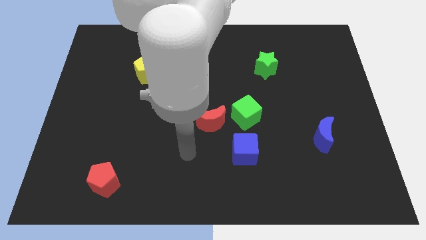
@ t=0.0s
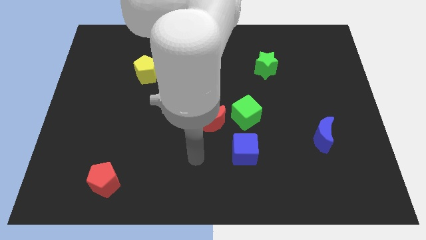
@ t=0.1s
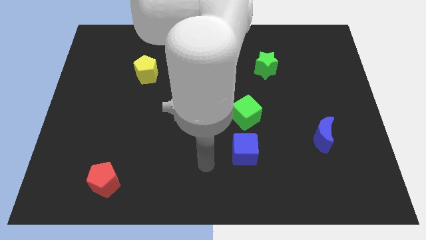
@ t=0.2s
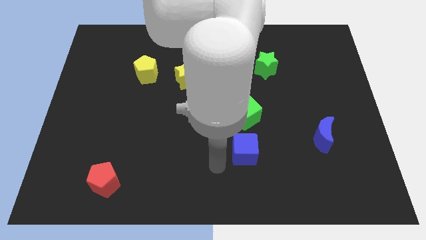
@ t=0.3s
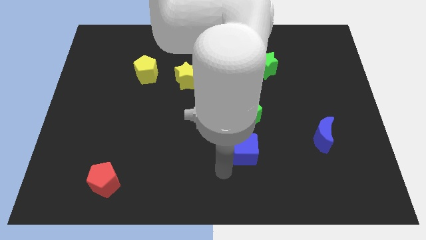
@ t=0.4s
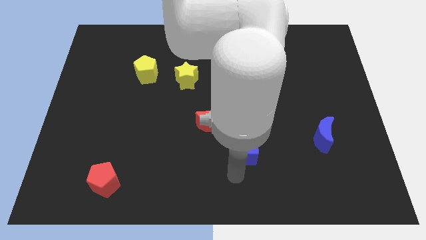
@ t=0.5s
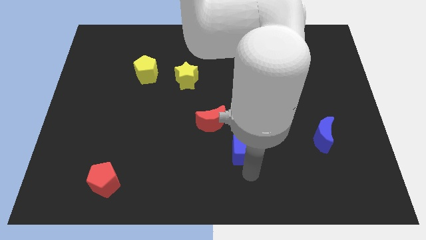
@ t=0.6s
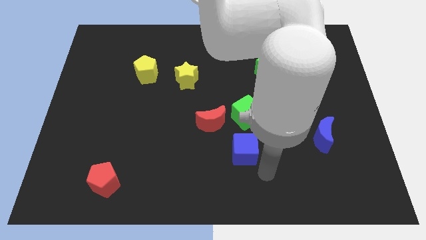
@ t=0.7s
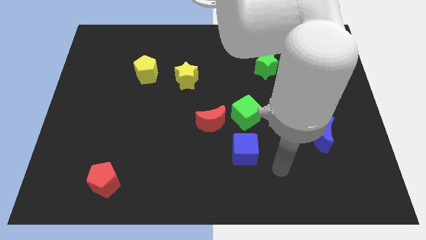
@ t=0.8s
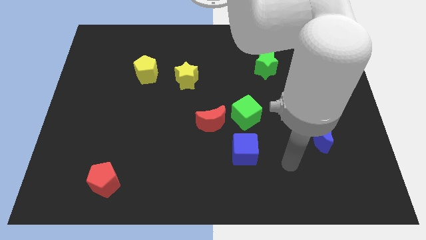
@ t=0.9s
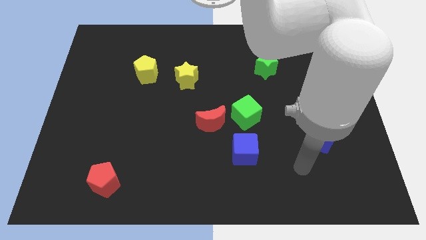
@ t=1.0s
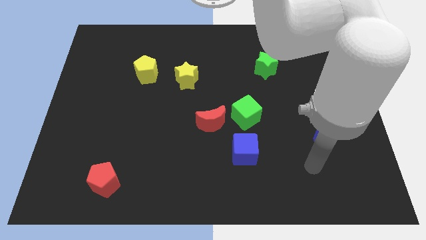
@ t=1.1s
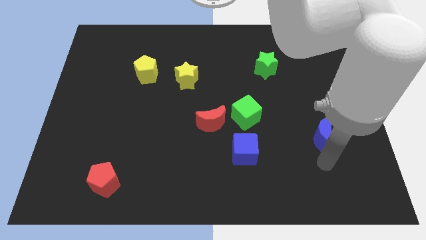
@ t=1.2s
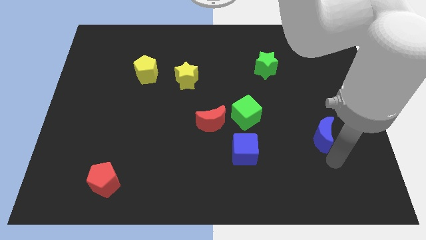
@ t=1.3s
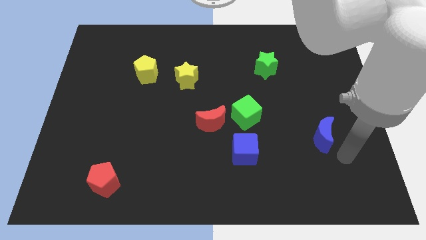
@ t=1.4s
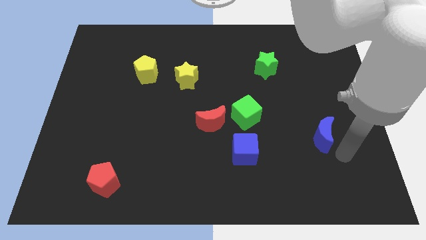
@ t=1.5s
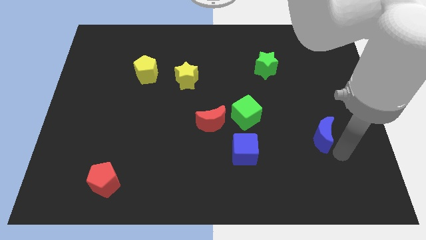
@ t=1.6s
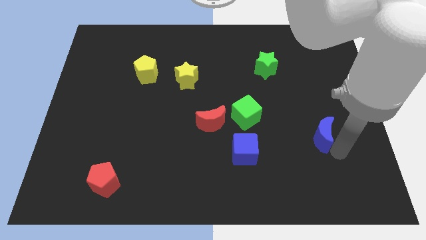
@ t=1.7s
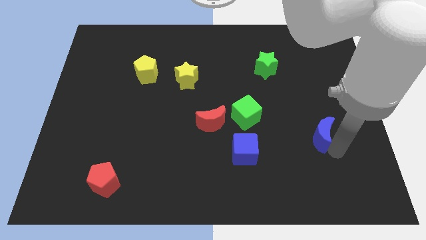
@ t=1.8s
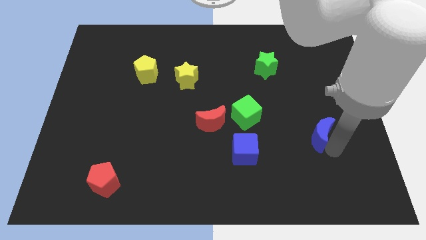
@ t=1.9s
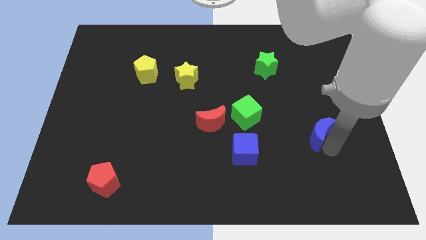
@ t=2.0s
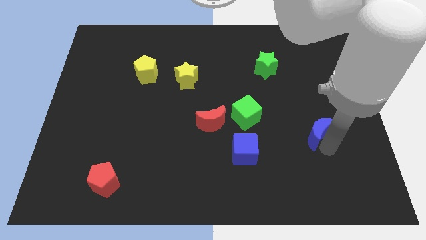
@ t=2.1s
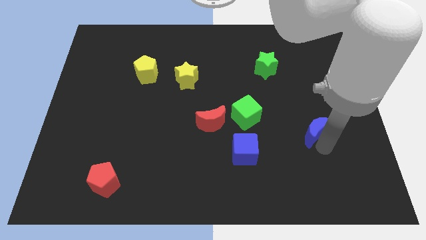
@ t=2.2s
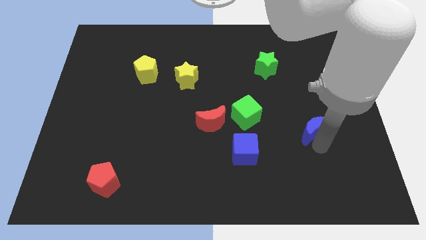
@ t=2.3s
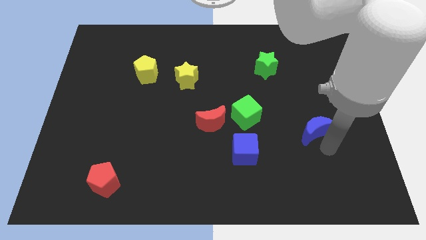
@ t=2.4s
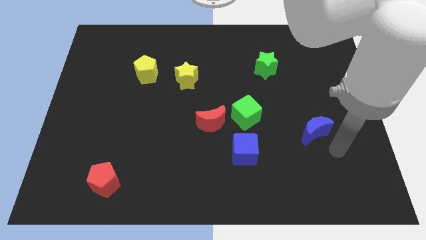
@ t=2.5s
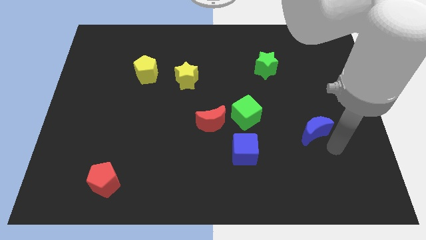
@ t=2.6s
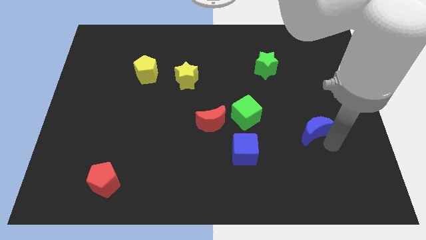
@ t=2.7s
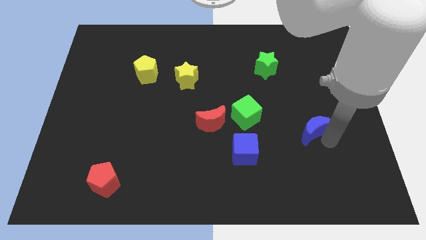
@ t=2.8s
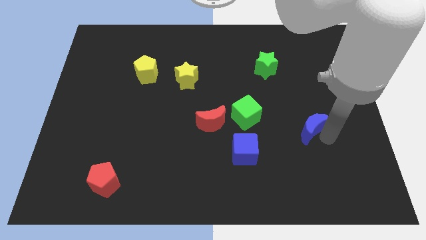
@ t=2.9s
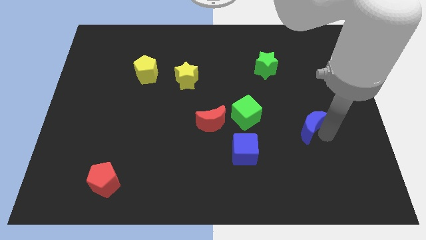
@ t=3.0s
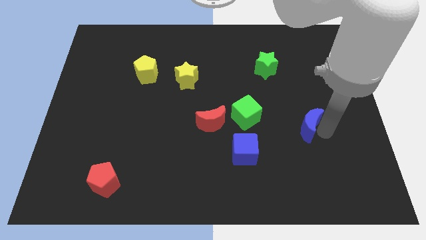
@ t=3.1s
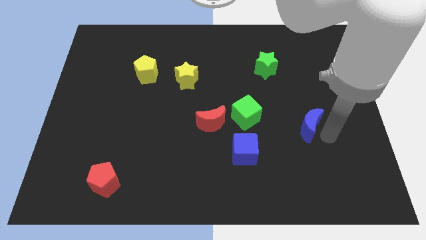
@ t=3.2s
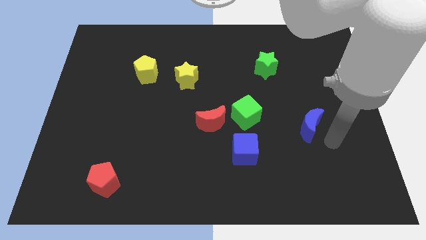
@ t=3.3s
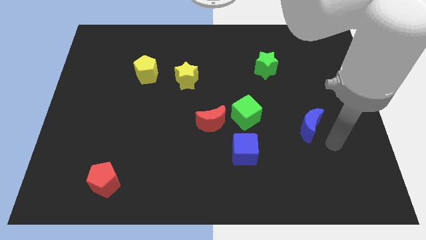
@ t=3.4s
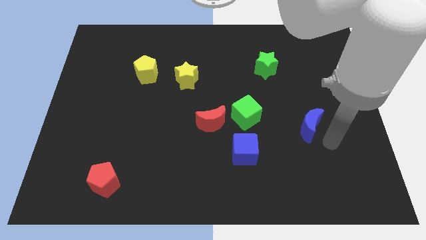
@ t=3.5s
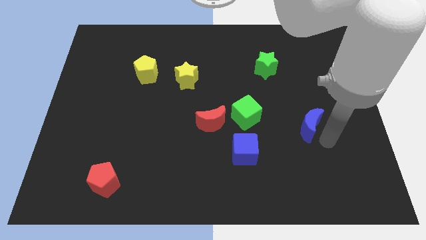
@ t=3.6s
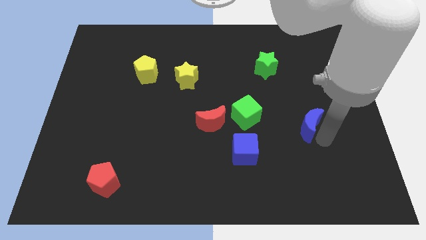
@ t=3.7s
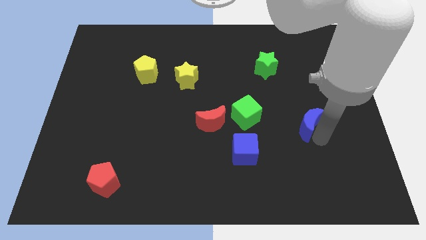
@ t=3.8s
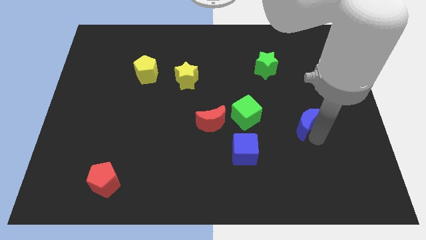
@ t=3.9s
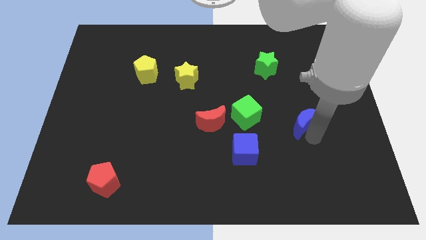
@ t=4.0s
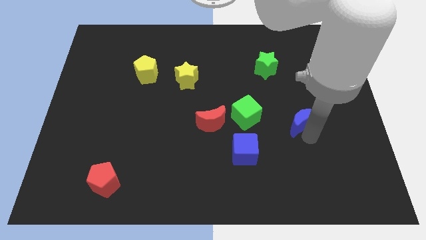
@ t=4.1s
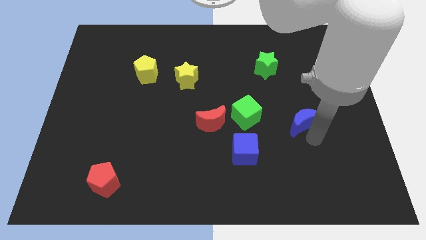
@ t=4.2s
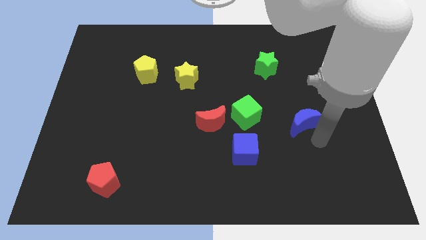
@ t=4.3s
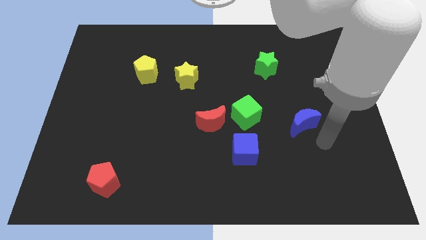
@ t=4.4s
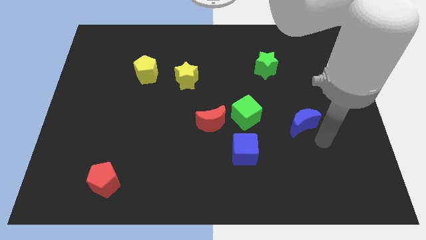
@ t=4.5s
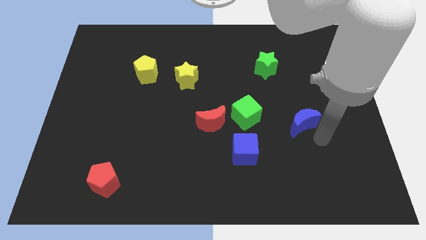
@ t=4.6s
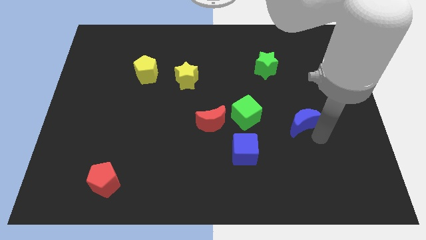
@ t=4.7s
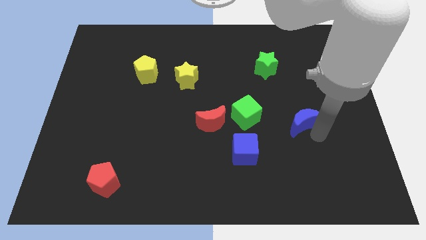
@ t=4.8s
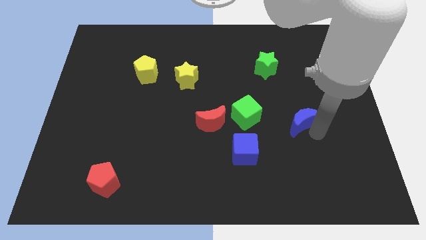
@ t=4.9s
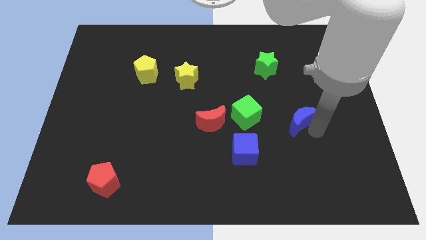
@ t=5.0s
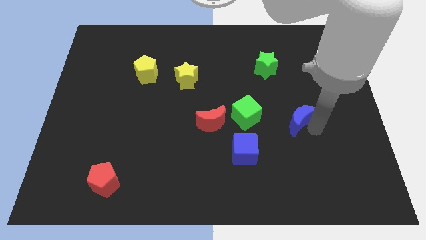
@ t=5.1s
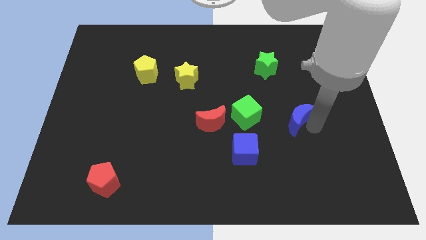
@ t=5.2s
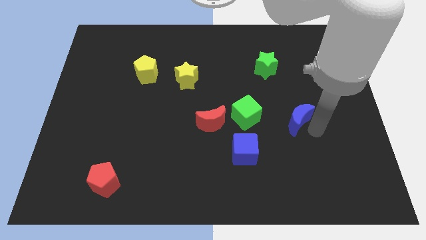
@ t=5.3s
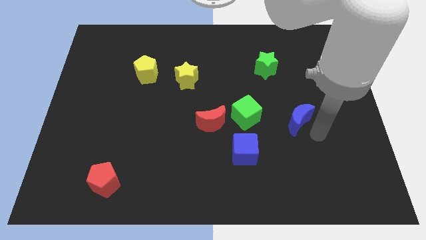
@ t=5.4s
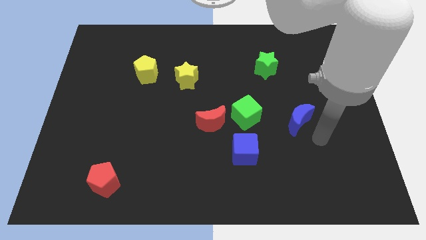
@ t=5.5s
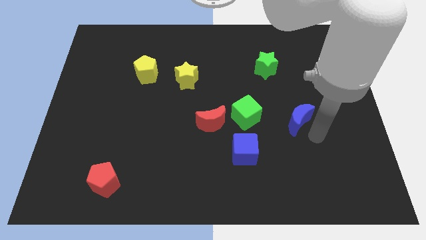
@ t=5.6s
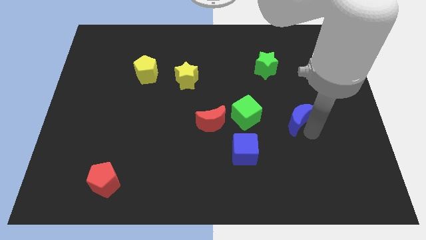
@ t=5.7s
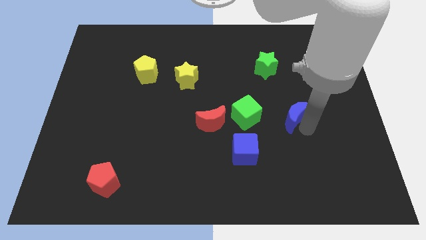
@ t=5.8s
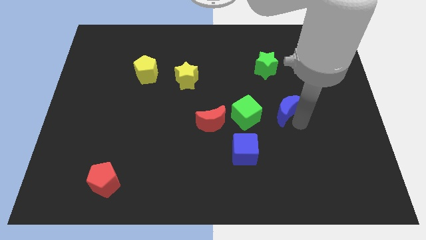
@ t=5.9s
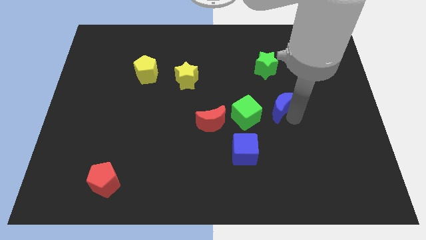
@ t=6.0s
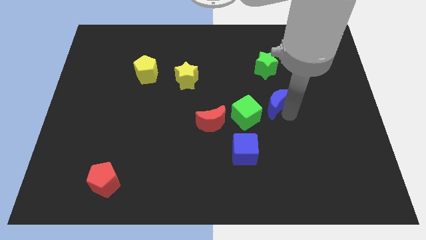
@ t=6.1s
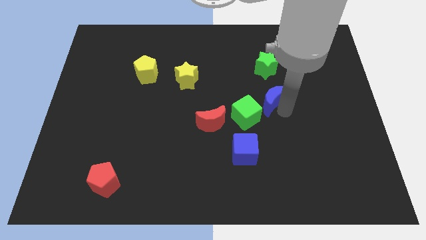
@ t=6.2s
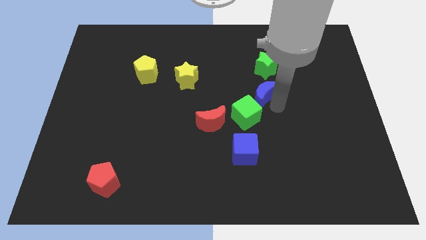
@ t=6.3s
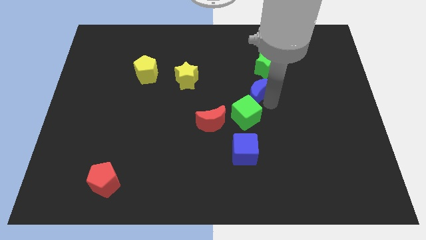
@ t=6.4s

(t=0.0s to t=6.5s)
slide the blue moon to the bottom left of the green star

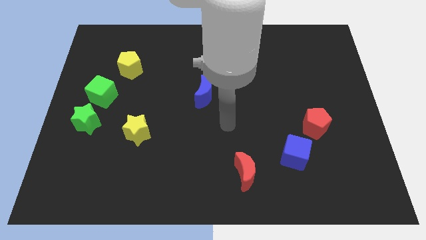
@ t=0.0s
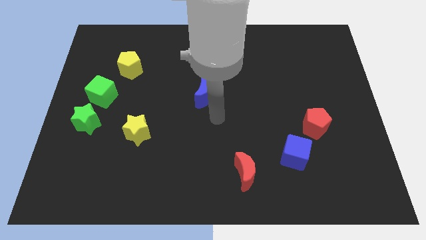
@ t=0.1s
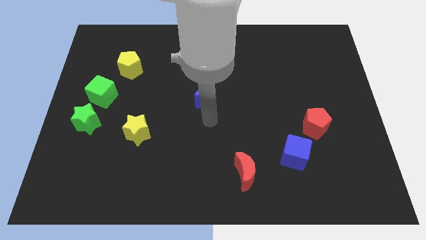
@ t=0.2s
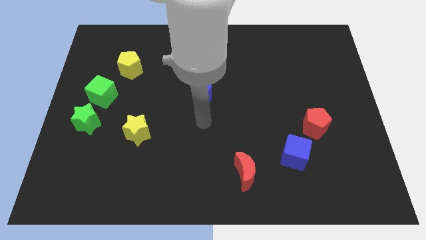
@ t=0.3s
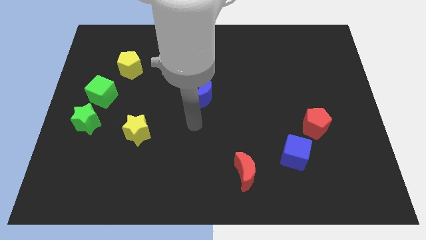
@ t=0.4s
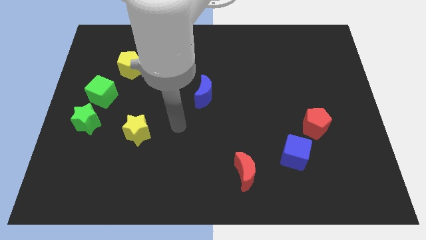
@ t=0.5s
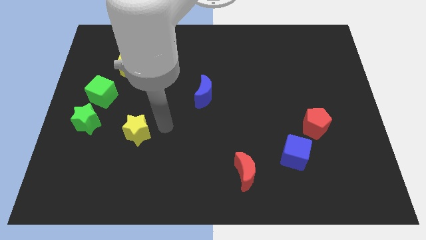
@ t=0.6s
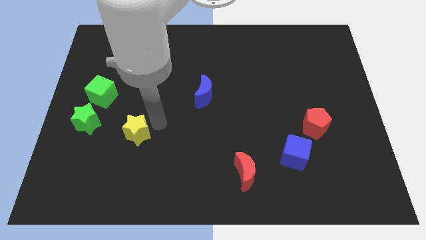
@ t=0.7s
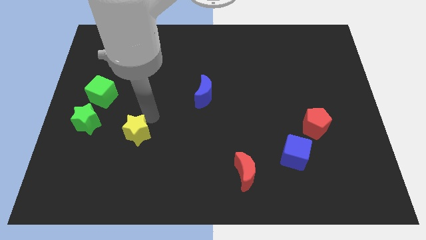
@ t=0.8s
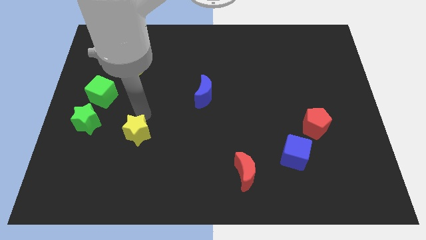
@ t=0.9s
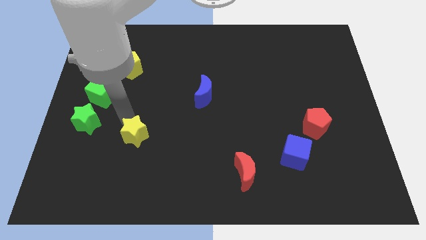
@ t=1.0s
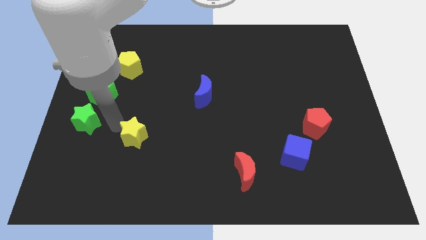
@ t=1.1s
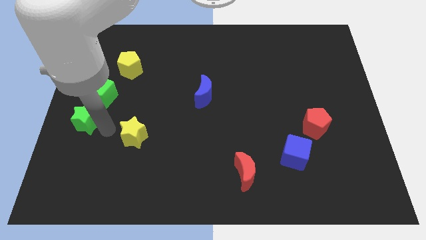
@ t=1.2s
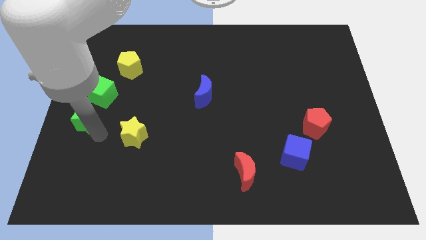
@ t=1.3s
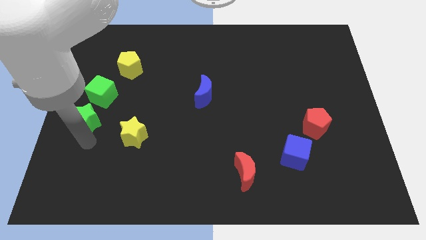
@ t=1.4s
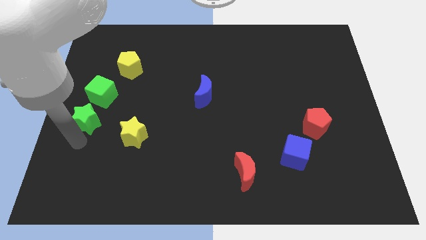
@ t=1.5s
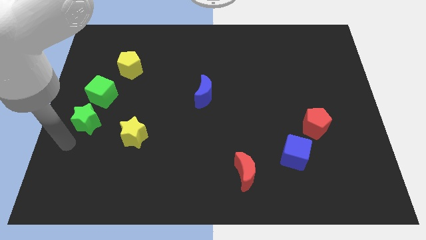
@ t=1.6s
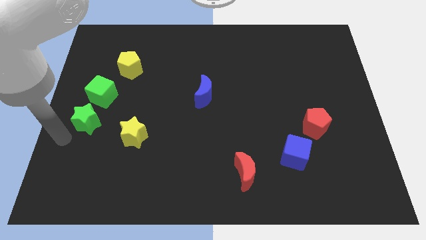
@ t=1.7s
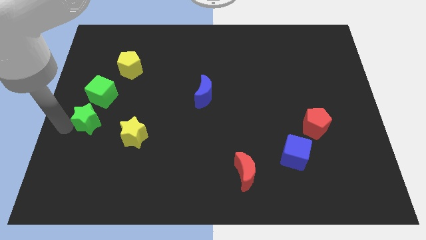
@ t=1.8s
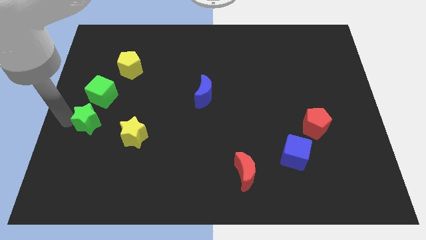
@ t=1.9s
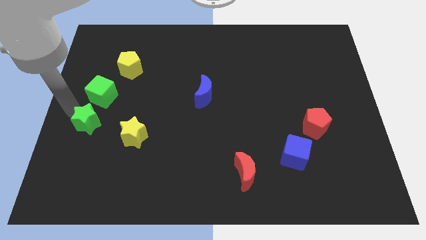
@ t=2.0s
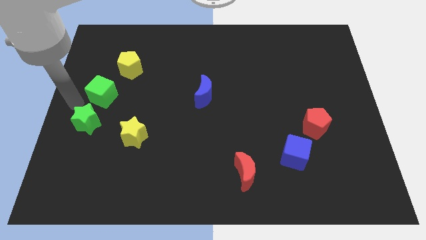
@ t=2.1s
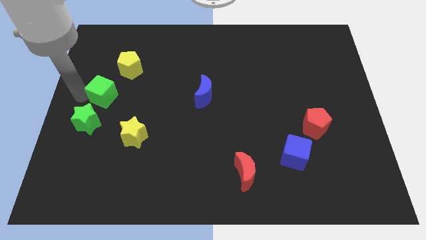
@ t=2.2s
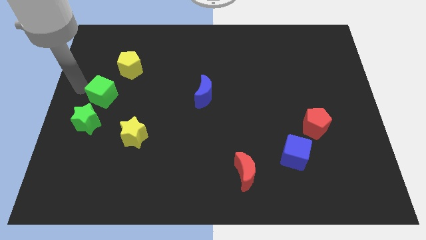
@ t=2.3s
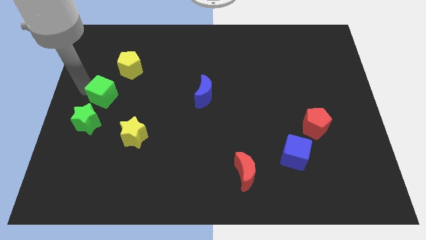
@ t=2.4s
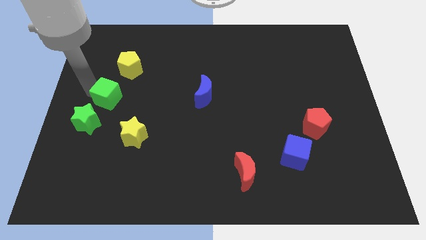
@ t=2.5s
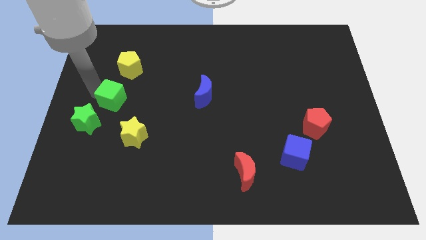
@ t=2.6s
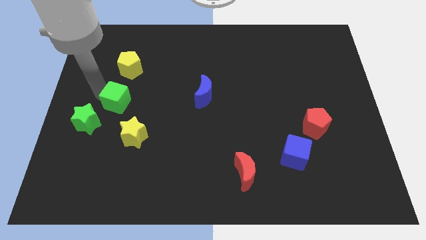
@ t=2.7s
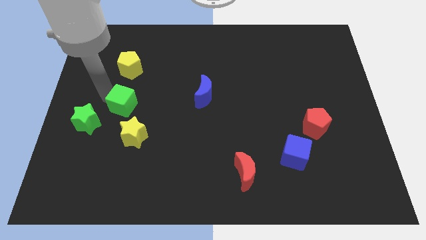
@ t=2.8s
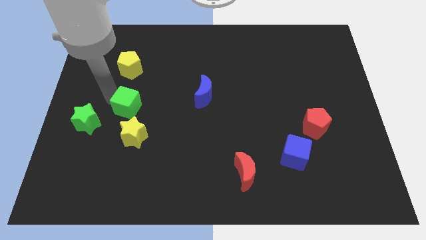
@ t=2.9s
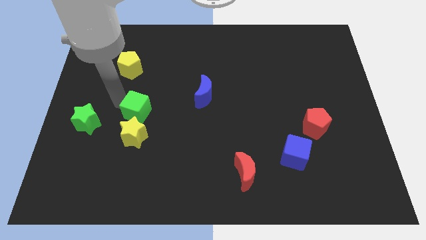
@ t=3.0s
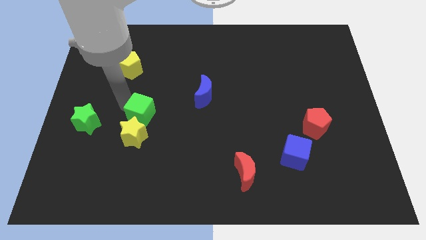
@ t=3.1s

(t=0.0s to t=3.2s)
move the green cube to the top right side of the yellow star
